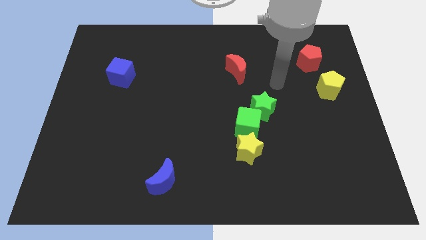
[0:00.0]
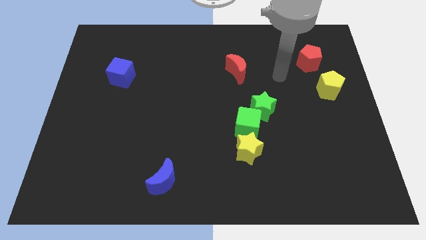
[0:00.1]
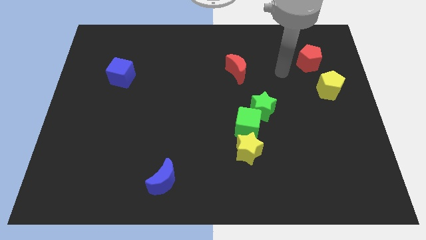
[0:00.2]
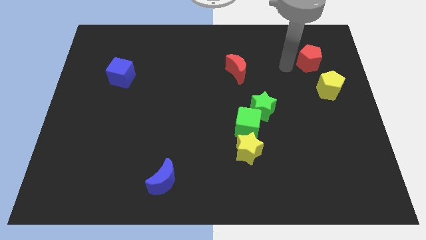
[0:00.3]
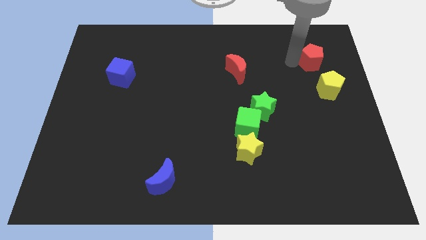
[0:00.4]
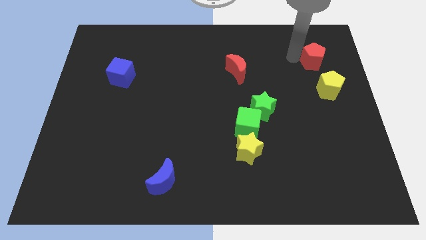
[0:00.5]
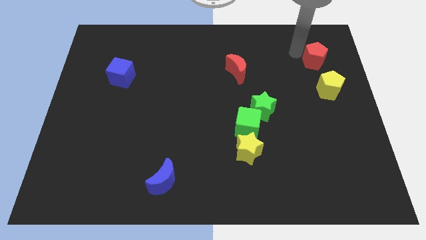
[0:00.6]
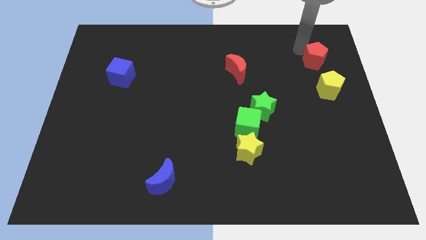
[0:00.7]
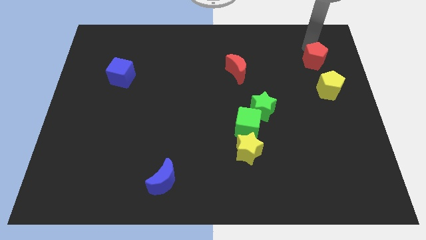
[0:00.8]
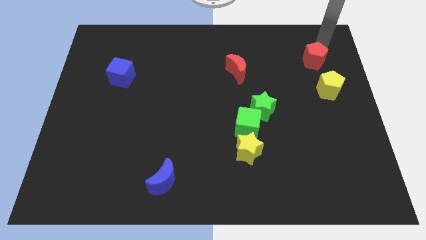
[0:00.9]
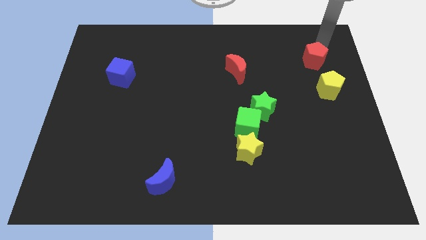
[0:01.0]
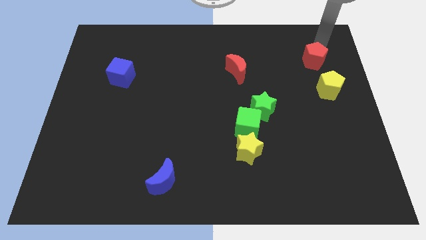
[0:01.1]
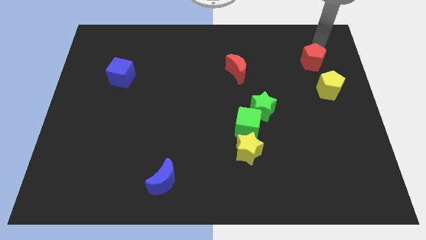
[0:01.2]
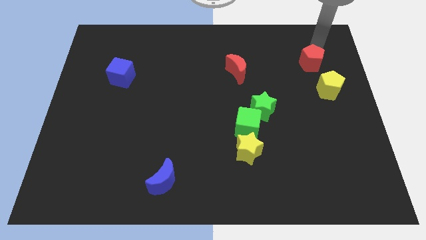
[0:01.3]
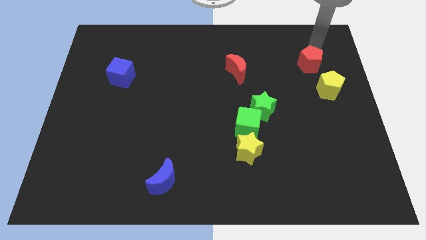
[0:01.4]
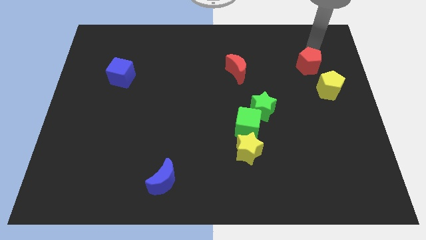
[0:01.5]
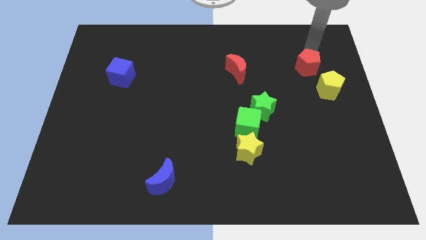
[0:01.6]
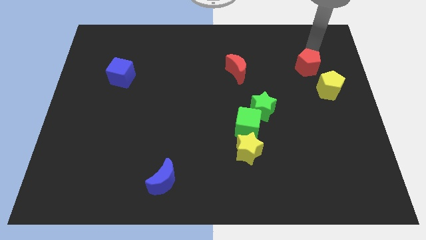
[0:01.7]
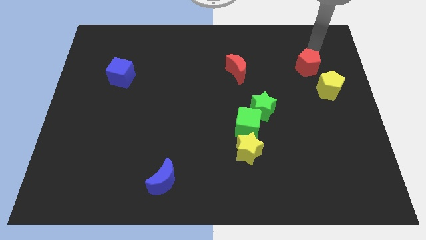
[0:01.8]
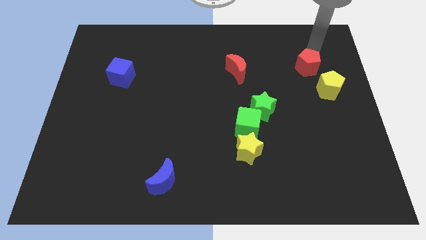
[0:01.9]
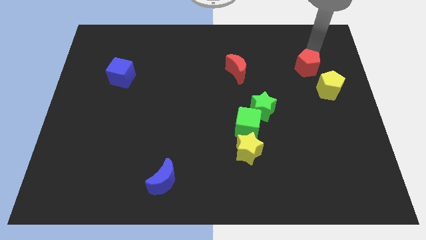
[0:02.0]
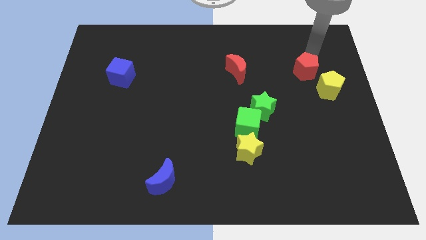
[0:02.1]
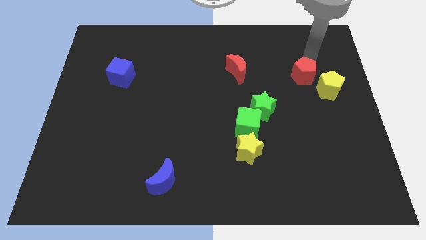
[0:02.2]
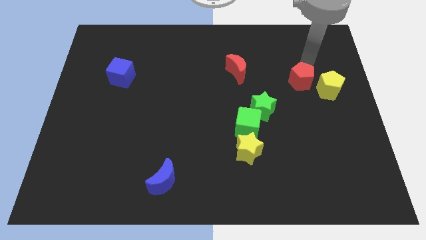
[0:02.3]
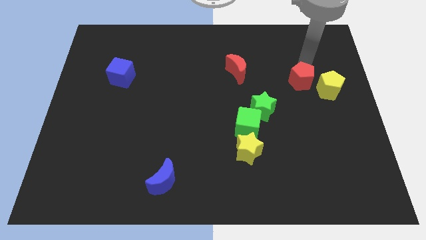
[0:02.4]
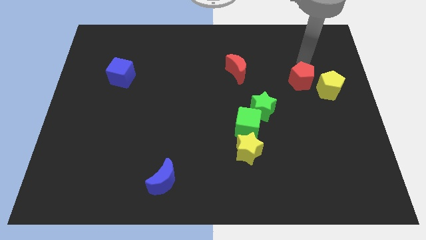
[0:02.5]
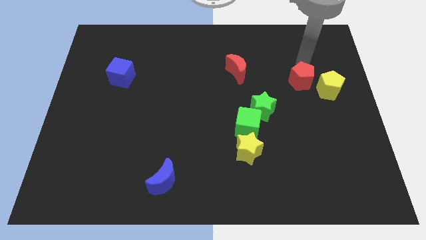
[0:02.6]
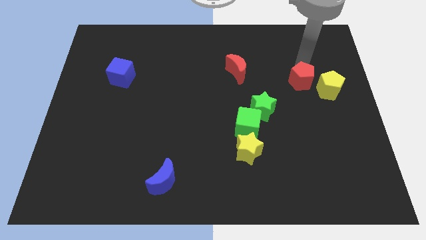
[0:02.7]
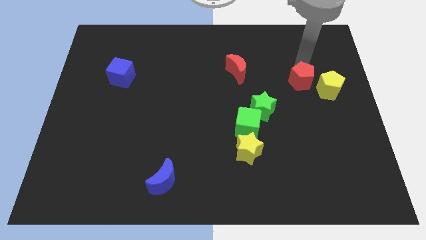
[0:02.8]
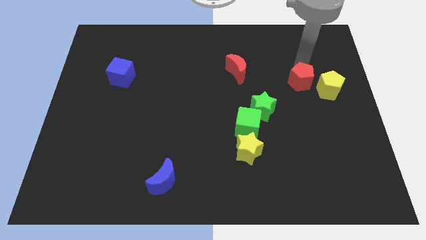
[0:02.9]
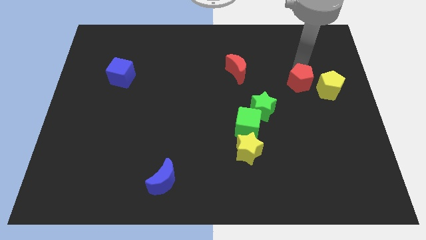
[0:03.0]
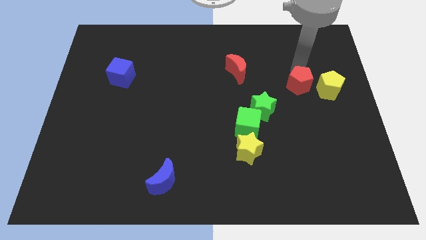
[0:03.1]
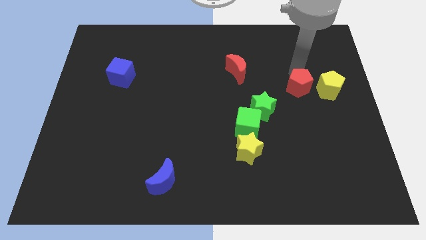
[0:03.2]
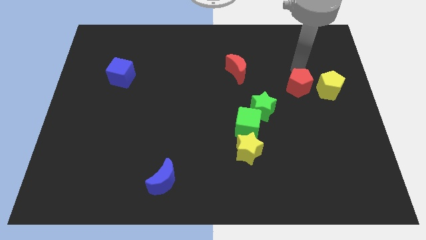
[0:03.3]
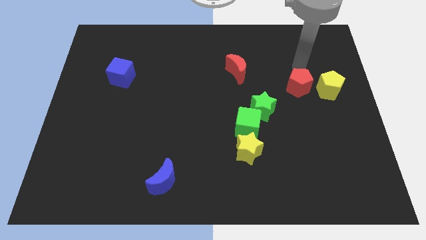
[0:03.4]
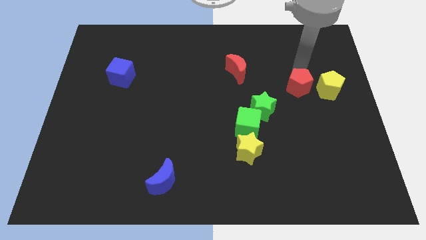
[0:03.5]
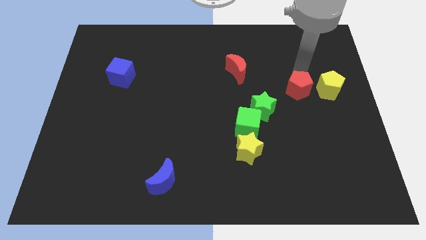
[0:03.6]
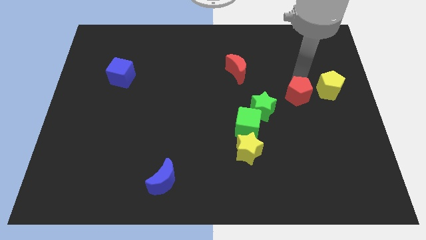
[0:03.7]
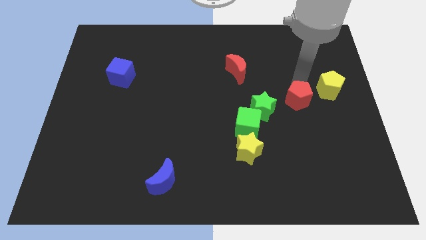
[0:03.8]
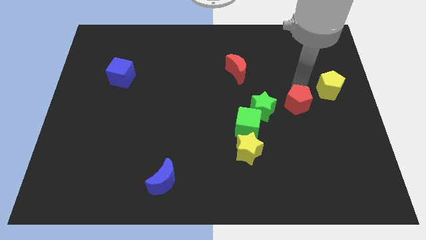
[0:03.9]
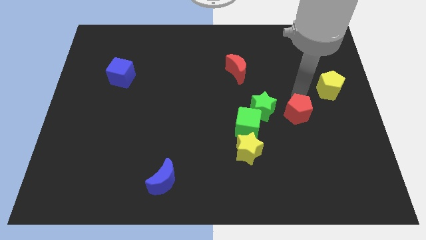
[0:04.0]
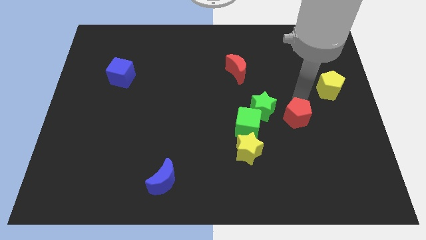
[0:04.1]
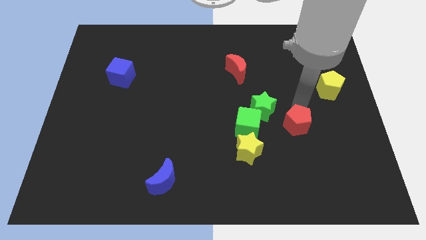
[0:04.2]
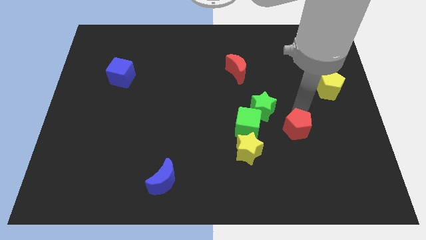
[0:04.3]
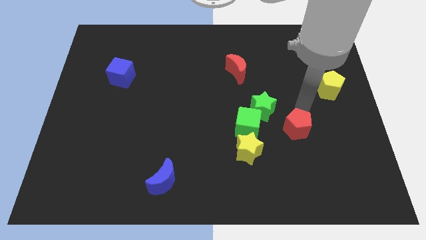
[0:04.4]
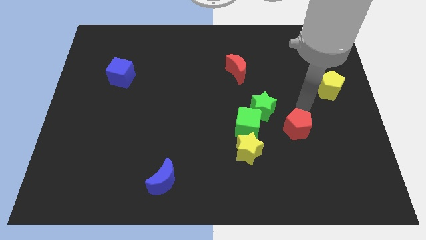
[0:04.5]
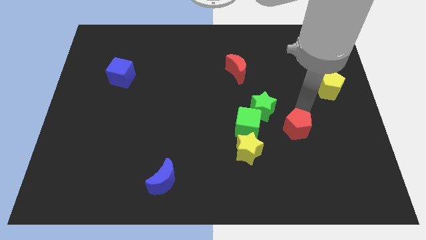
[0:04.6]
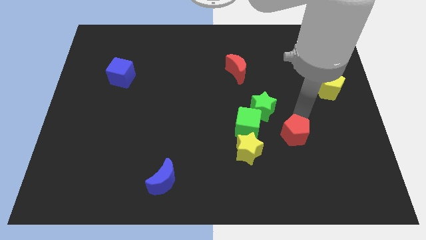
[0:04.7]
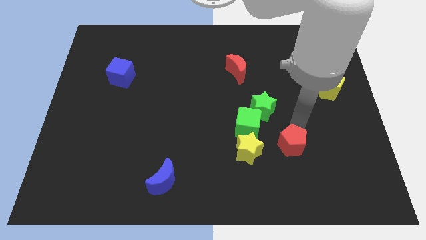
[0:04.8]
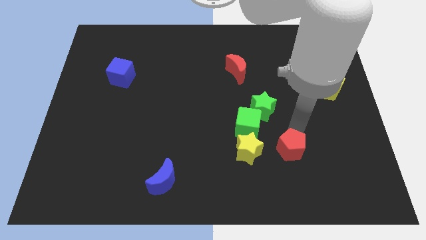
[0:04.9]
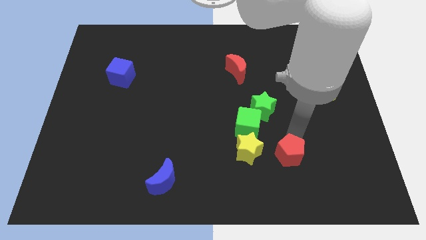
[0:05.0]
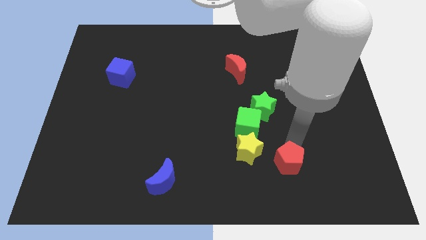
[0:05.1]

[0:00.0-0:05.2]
slide the red pentagon to the bottom right side of the yellow star

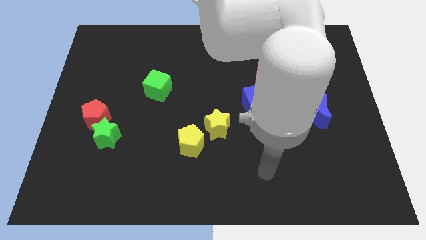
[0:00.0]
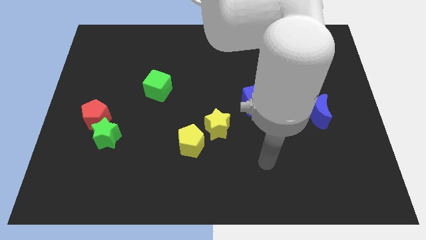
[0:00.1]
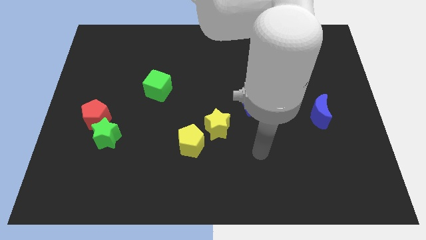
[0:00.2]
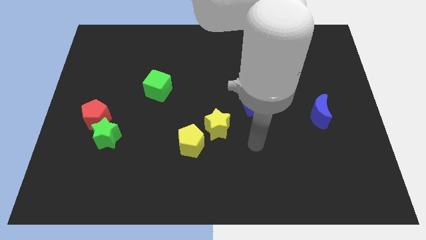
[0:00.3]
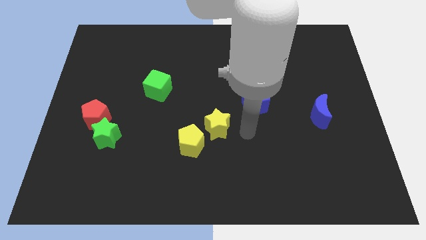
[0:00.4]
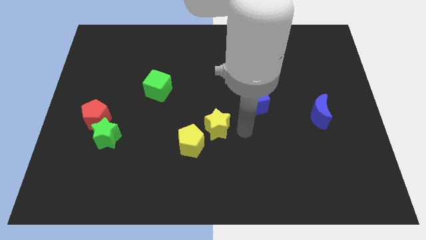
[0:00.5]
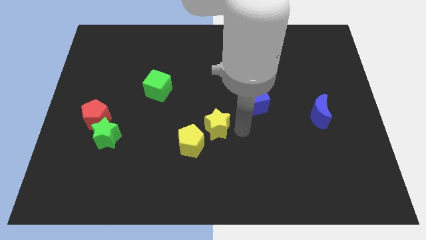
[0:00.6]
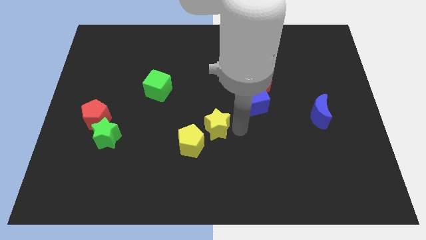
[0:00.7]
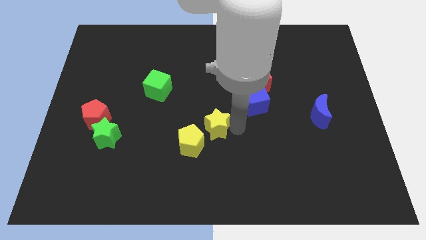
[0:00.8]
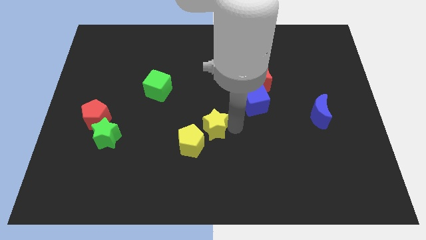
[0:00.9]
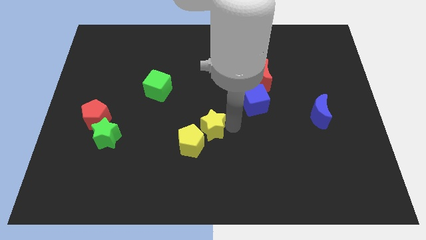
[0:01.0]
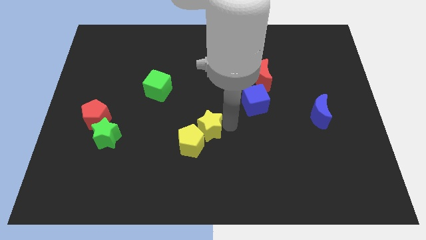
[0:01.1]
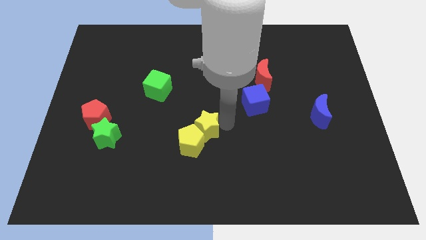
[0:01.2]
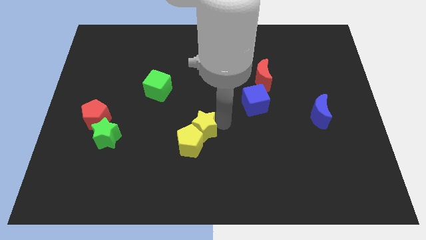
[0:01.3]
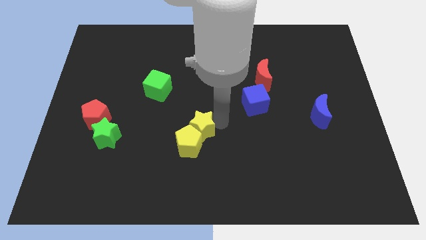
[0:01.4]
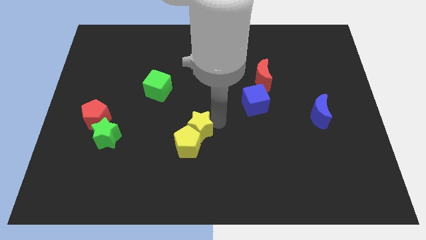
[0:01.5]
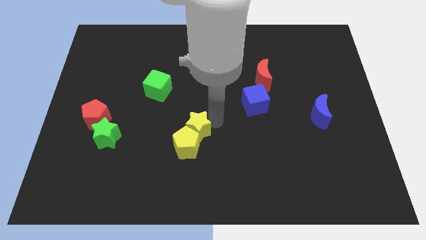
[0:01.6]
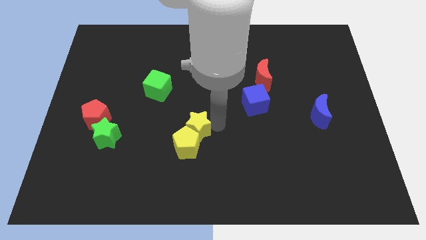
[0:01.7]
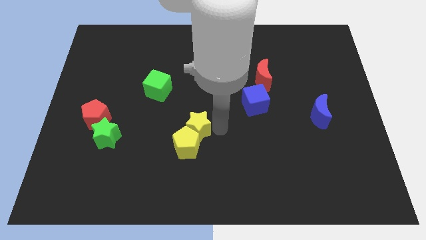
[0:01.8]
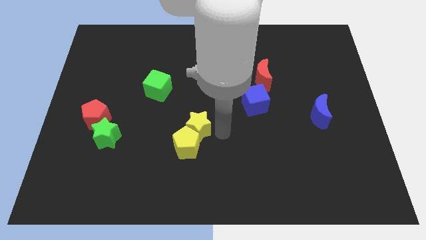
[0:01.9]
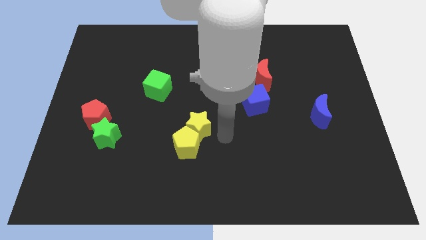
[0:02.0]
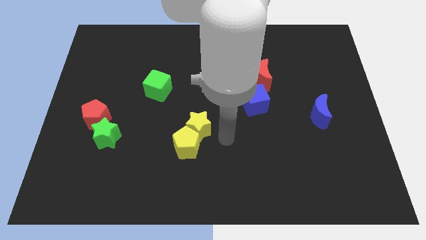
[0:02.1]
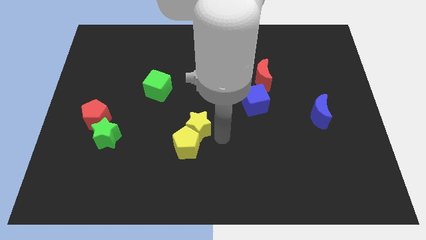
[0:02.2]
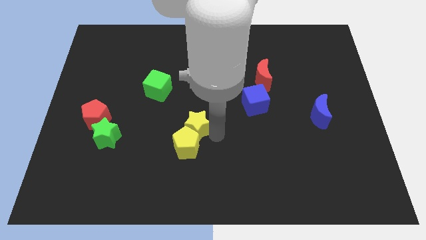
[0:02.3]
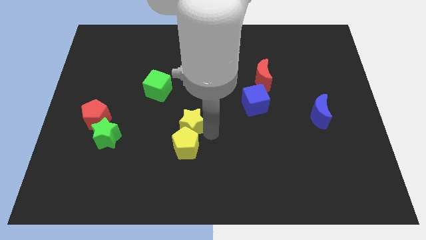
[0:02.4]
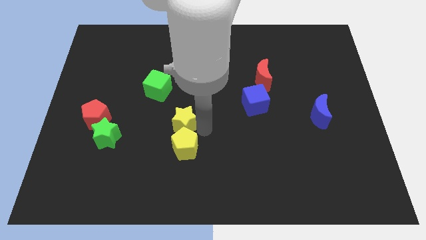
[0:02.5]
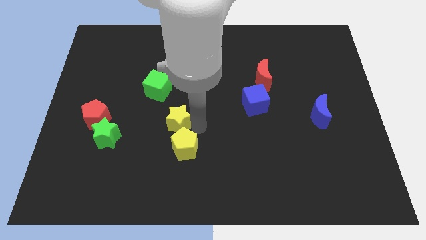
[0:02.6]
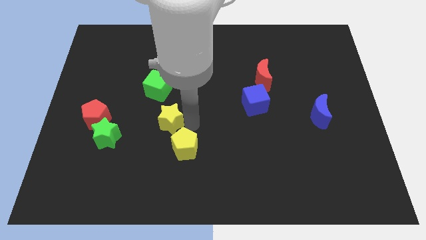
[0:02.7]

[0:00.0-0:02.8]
slide the yellow star to the bottom of the green cube
